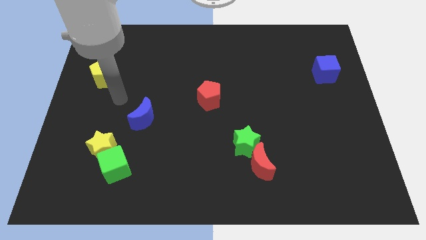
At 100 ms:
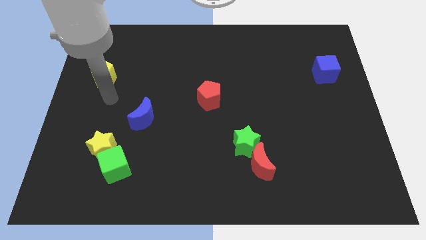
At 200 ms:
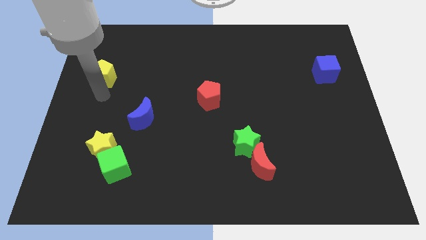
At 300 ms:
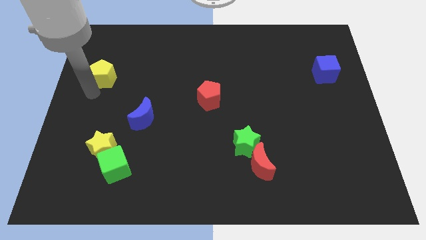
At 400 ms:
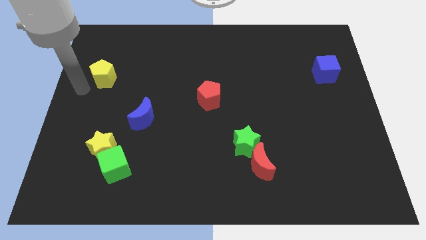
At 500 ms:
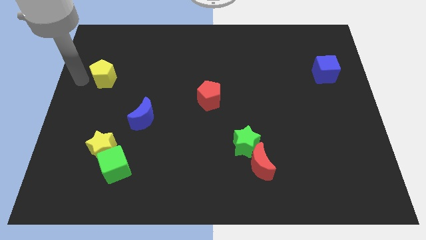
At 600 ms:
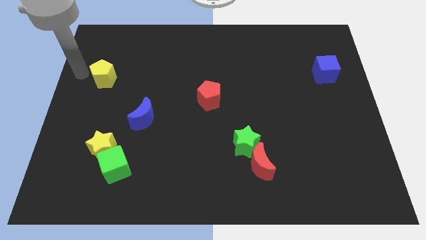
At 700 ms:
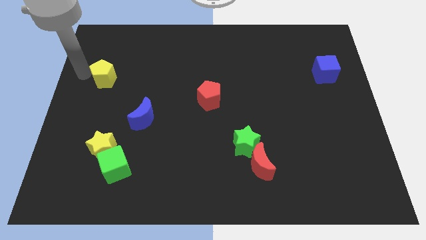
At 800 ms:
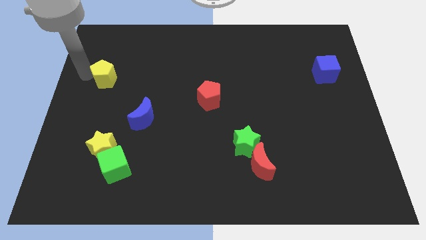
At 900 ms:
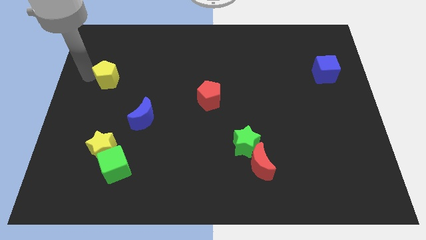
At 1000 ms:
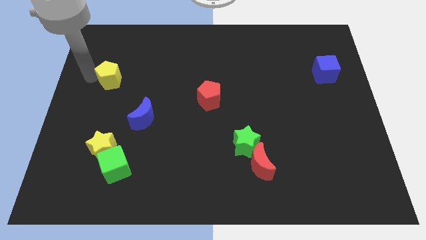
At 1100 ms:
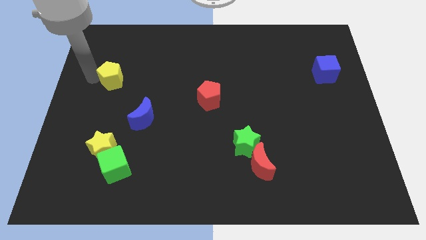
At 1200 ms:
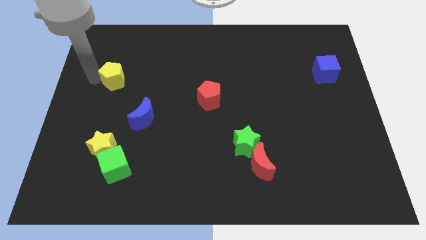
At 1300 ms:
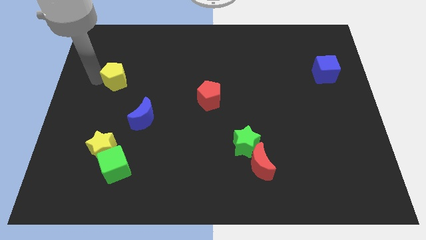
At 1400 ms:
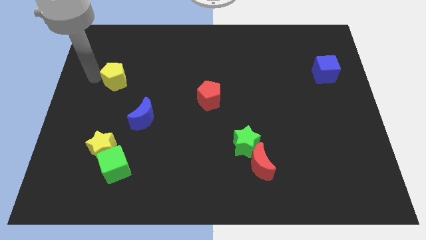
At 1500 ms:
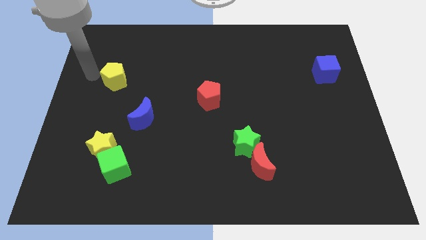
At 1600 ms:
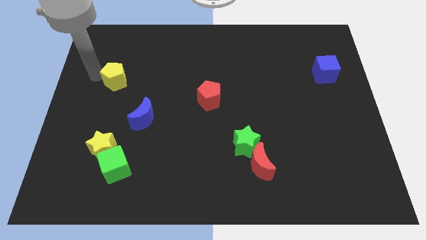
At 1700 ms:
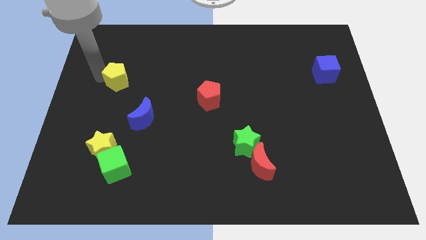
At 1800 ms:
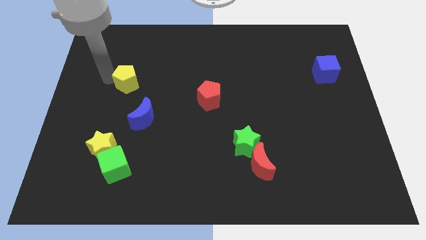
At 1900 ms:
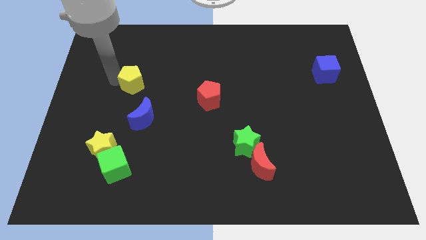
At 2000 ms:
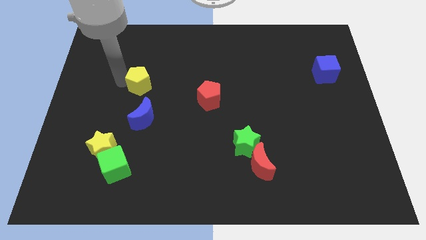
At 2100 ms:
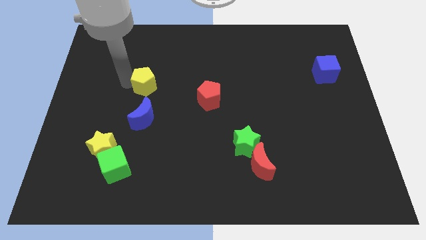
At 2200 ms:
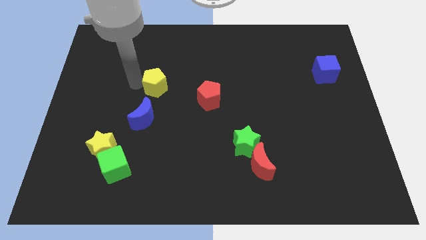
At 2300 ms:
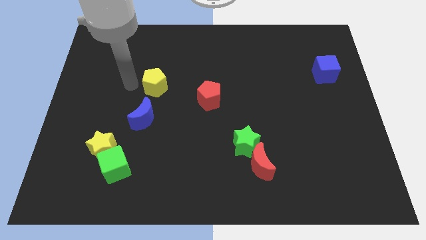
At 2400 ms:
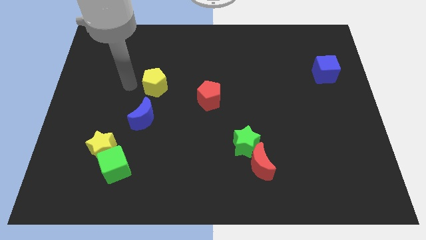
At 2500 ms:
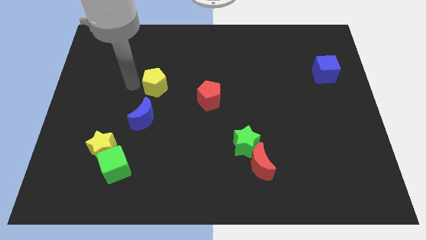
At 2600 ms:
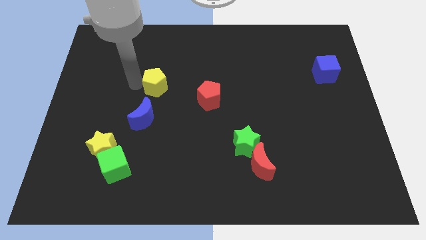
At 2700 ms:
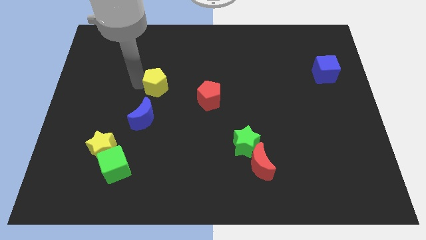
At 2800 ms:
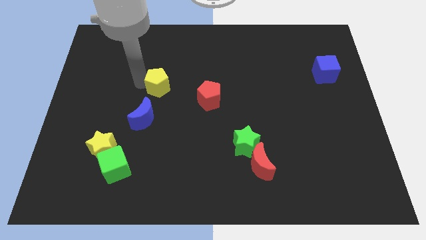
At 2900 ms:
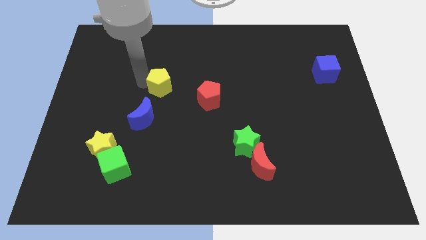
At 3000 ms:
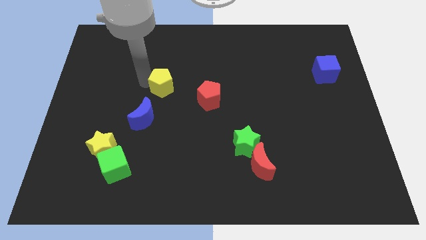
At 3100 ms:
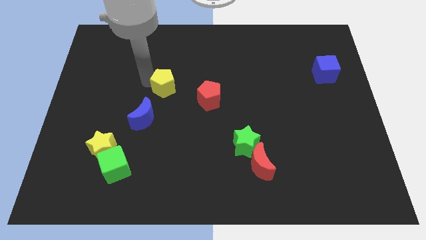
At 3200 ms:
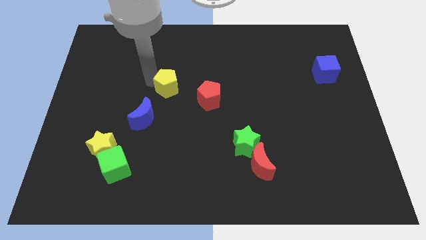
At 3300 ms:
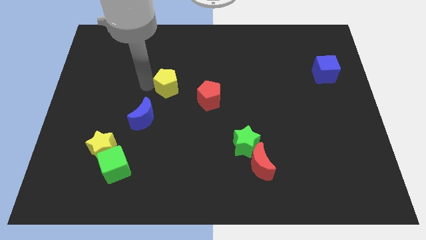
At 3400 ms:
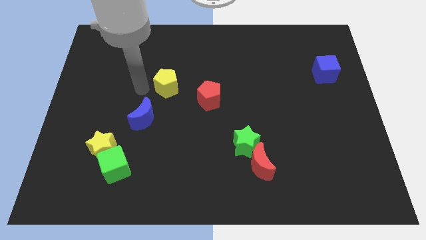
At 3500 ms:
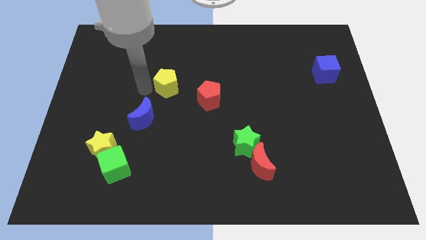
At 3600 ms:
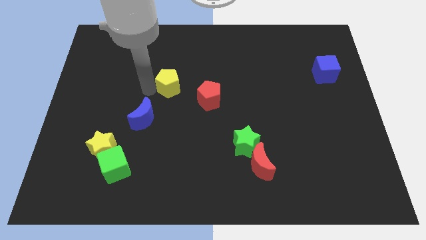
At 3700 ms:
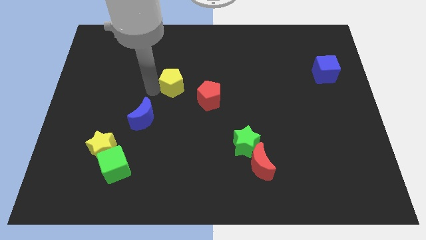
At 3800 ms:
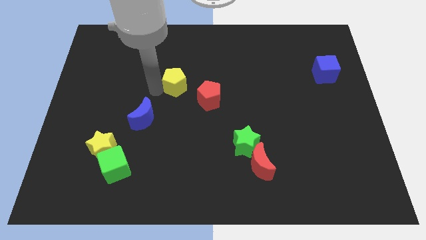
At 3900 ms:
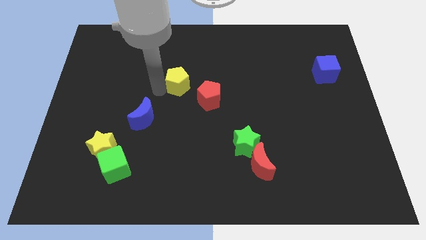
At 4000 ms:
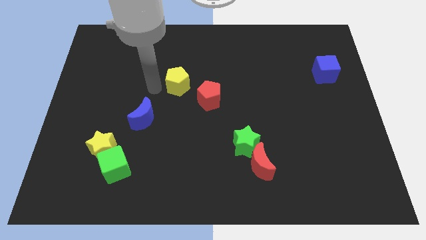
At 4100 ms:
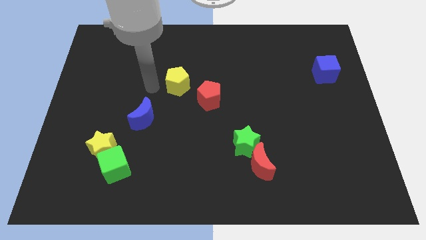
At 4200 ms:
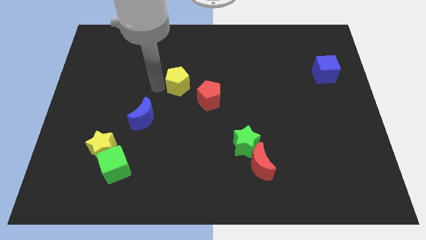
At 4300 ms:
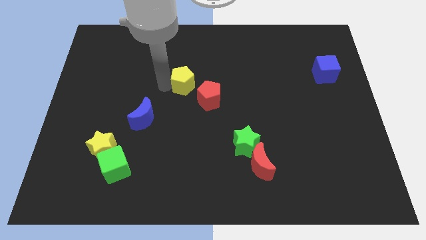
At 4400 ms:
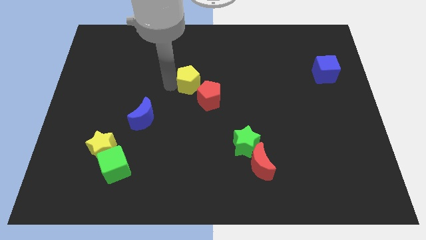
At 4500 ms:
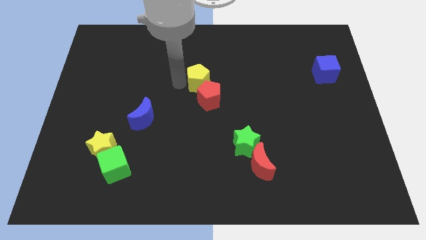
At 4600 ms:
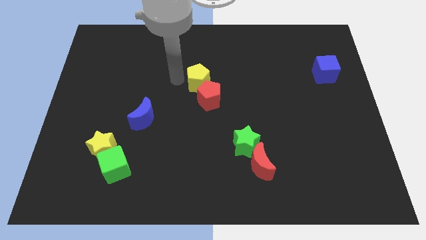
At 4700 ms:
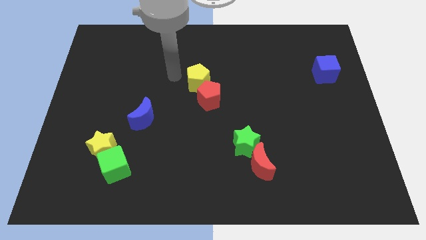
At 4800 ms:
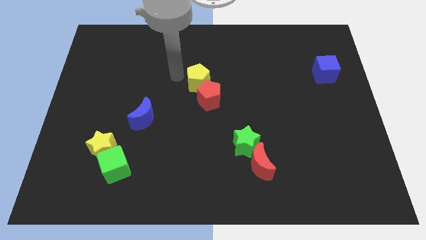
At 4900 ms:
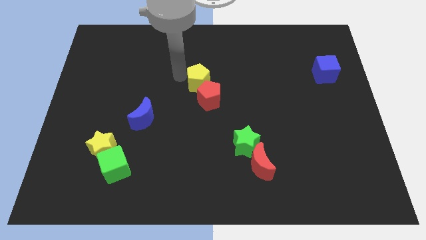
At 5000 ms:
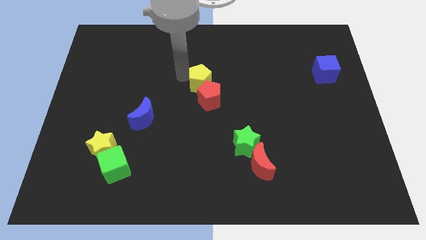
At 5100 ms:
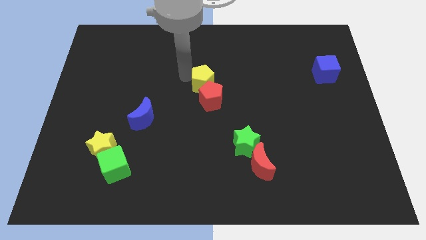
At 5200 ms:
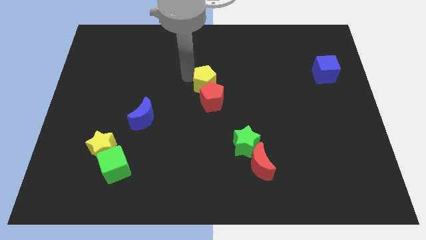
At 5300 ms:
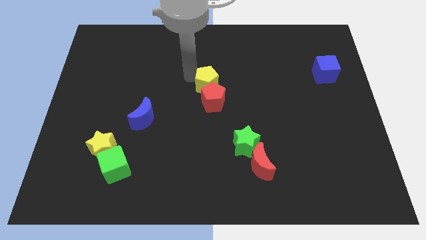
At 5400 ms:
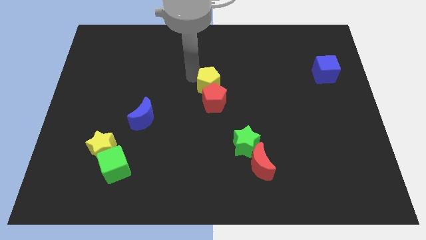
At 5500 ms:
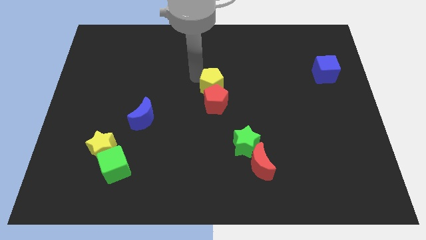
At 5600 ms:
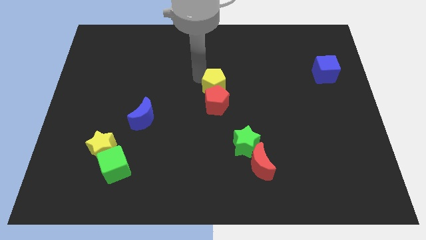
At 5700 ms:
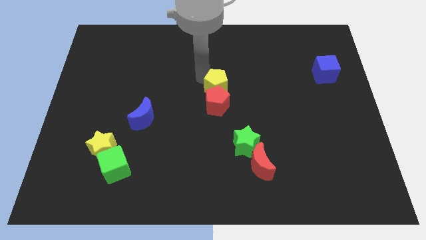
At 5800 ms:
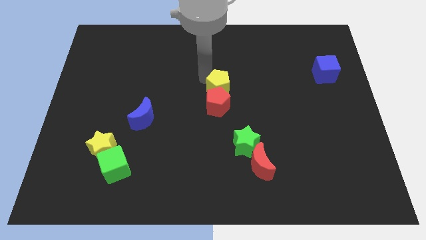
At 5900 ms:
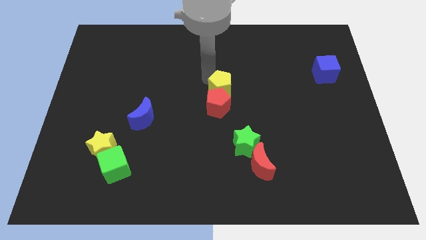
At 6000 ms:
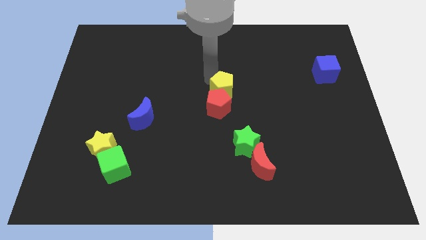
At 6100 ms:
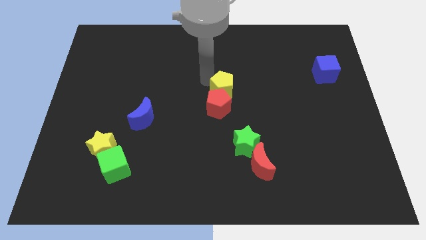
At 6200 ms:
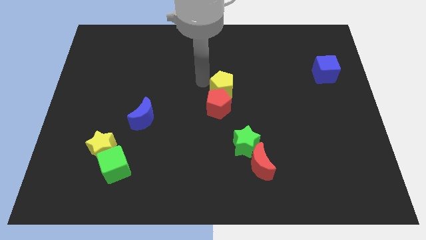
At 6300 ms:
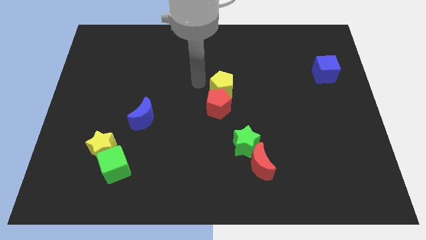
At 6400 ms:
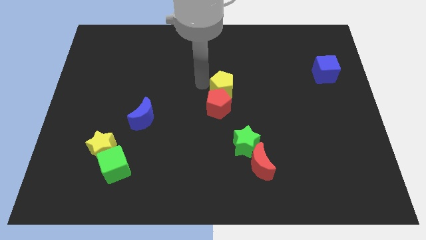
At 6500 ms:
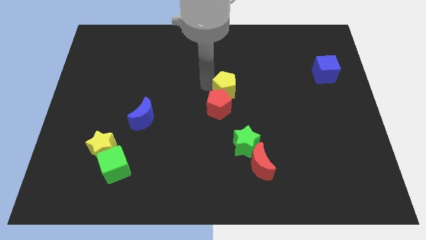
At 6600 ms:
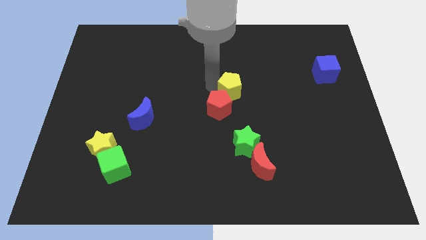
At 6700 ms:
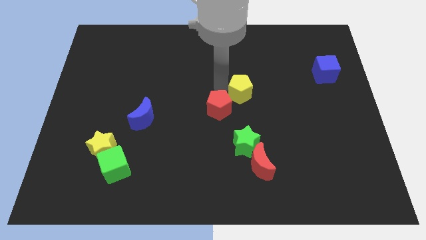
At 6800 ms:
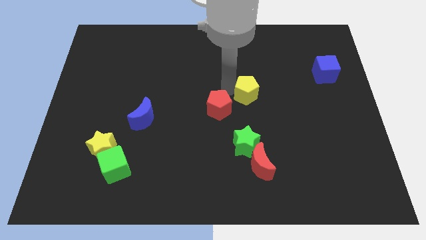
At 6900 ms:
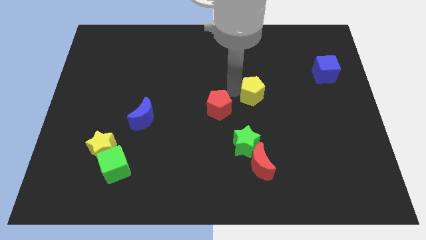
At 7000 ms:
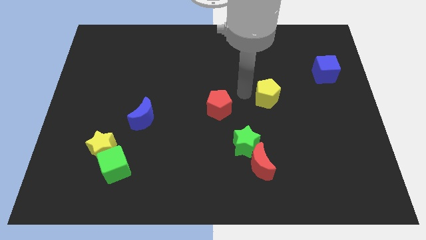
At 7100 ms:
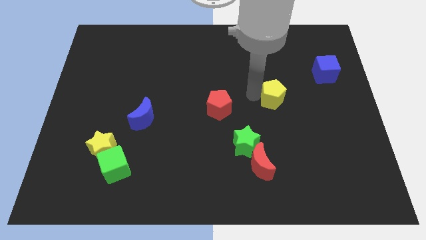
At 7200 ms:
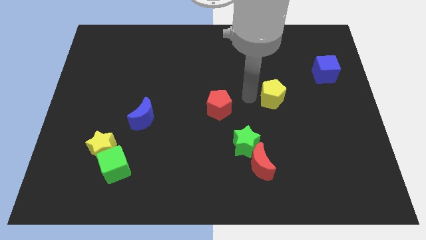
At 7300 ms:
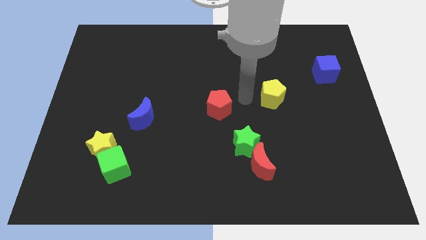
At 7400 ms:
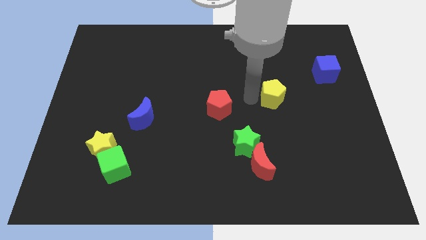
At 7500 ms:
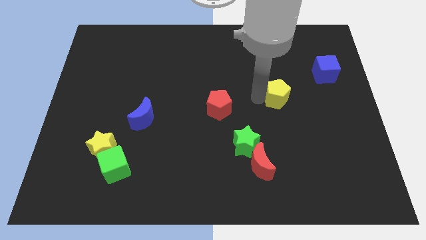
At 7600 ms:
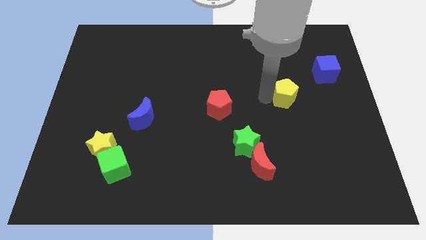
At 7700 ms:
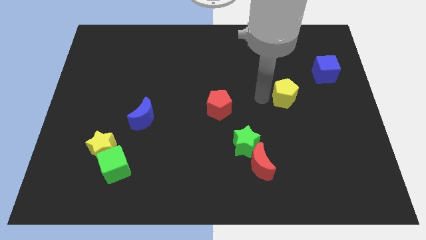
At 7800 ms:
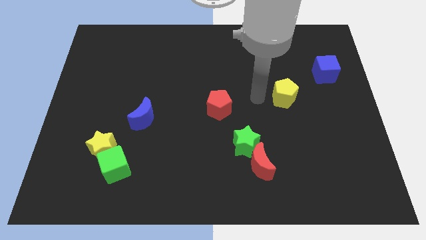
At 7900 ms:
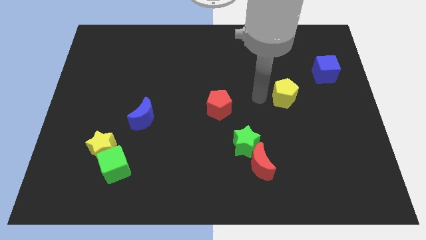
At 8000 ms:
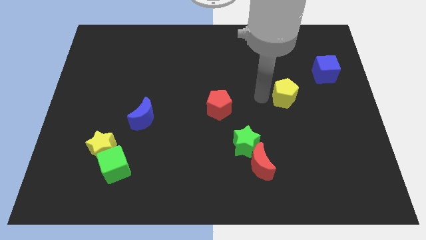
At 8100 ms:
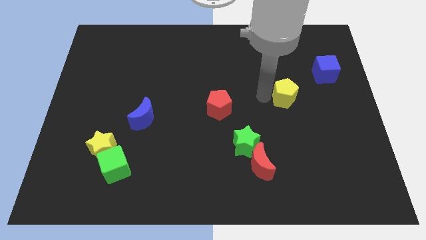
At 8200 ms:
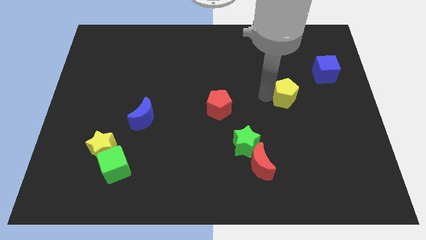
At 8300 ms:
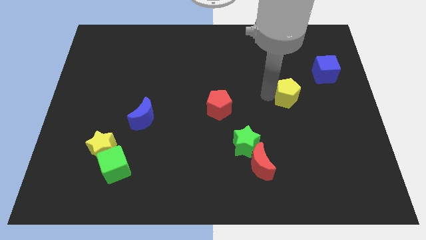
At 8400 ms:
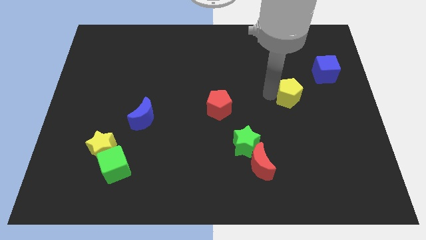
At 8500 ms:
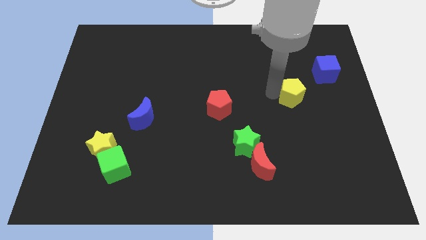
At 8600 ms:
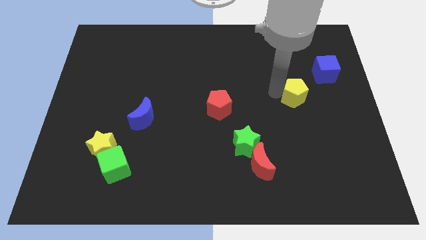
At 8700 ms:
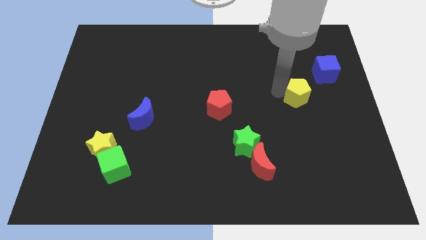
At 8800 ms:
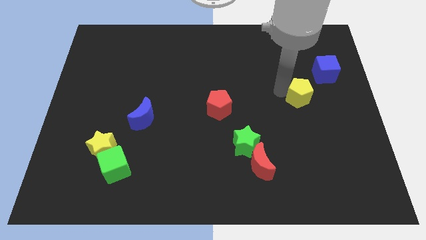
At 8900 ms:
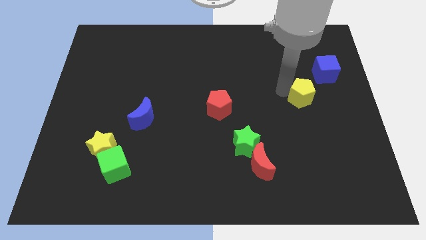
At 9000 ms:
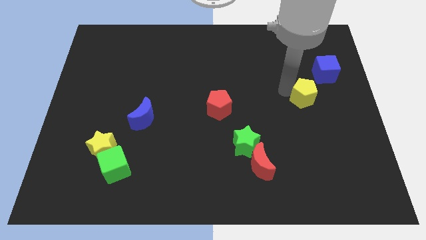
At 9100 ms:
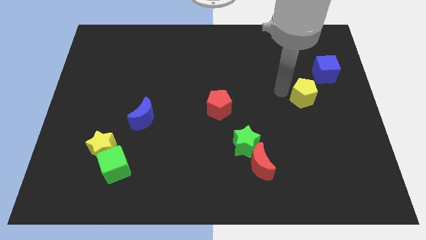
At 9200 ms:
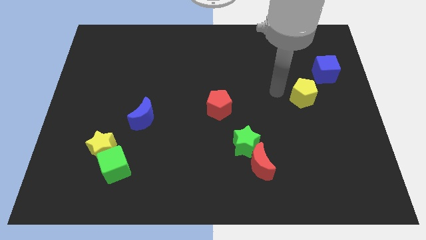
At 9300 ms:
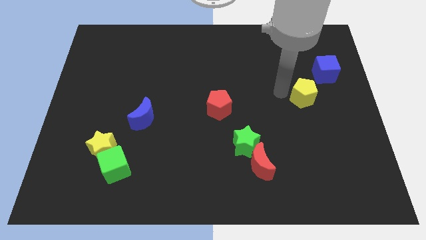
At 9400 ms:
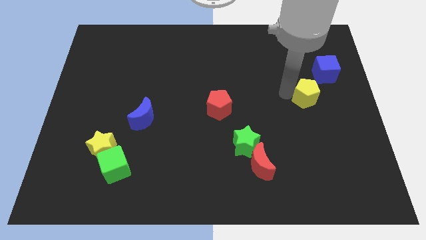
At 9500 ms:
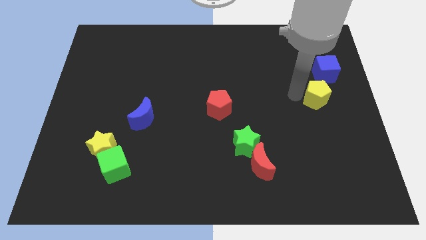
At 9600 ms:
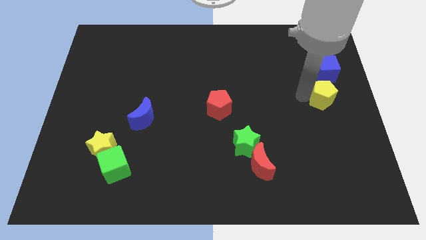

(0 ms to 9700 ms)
slide the yellow pentagon to the right side
